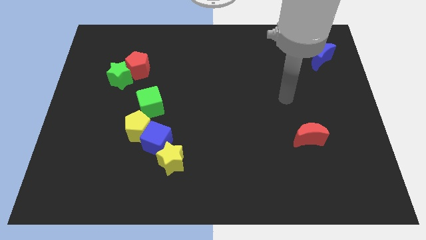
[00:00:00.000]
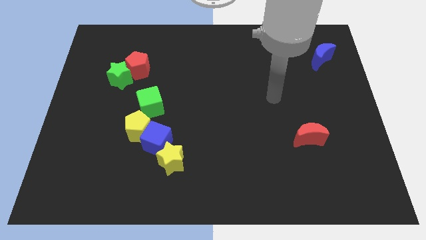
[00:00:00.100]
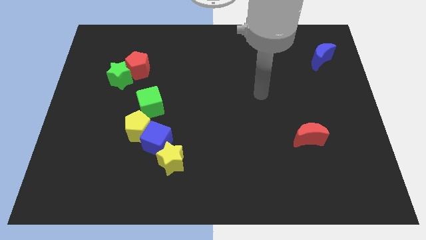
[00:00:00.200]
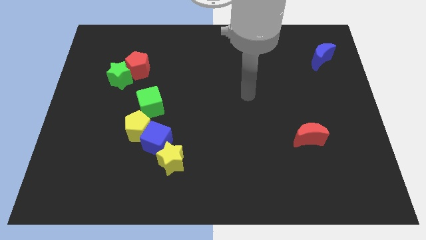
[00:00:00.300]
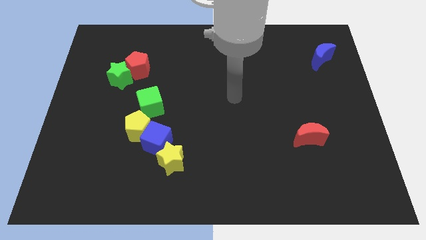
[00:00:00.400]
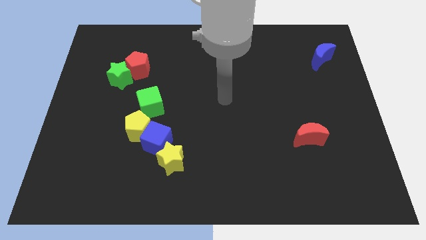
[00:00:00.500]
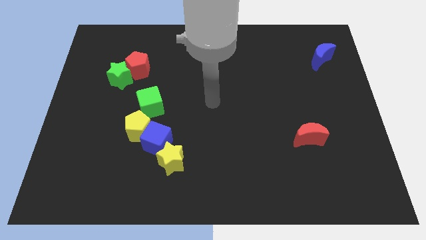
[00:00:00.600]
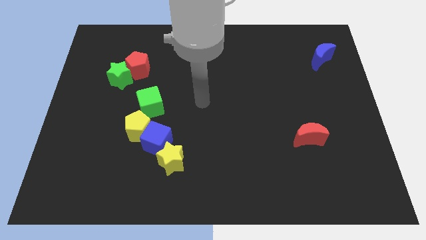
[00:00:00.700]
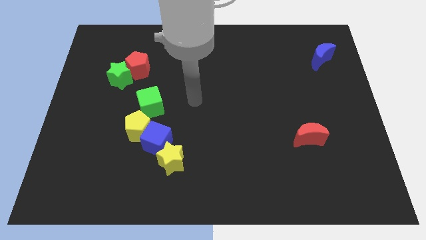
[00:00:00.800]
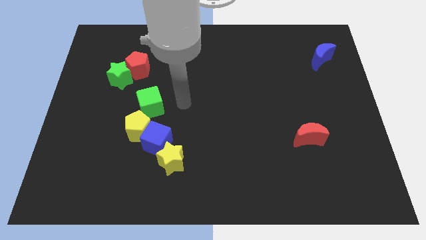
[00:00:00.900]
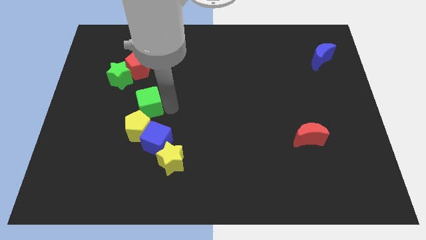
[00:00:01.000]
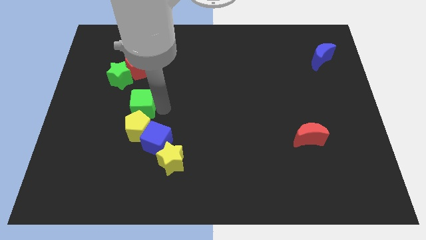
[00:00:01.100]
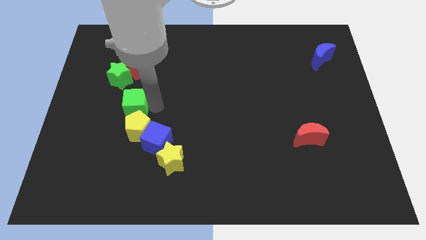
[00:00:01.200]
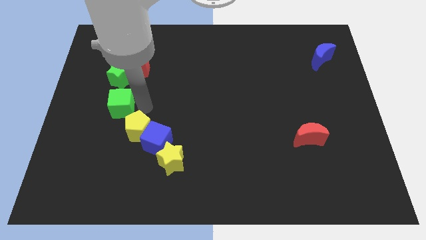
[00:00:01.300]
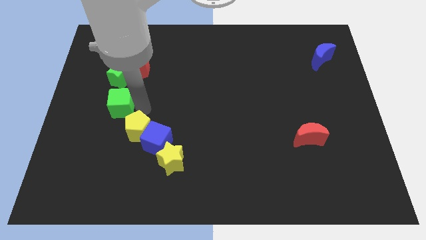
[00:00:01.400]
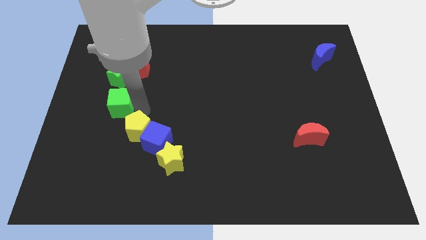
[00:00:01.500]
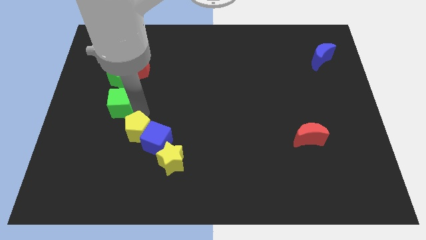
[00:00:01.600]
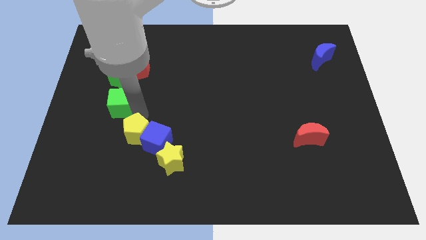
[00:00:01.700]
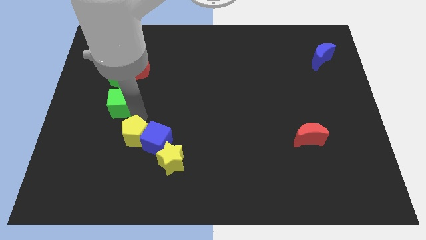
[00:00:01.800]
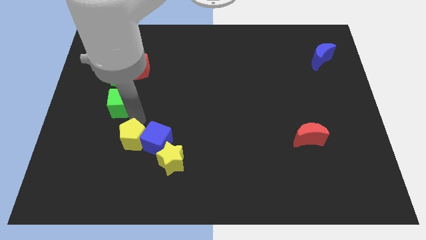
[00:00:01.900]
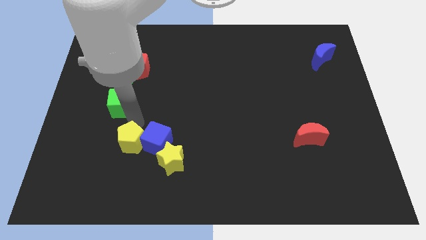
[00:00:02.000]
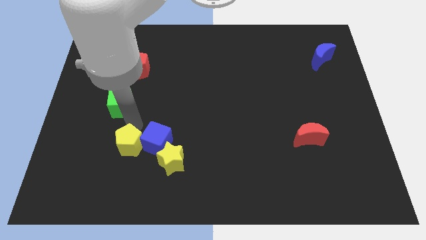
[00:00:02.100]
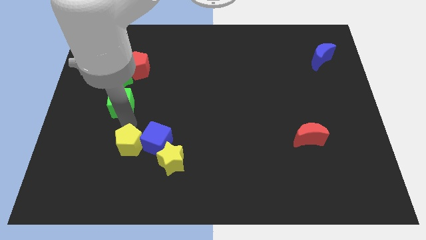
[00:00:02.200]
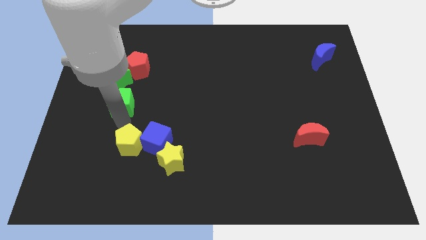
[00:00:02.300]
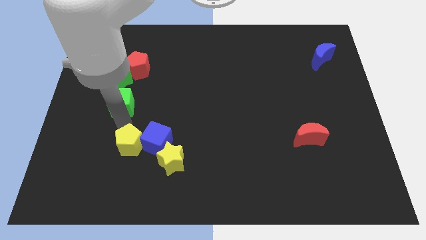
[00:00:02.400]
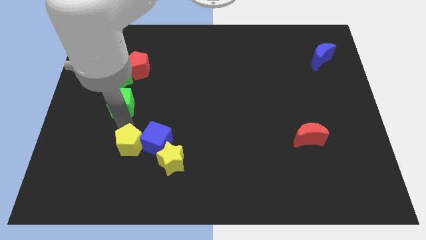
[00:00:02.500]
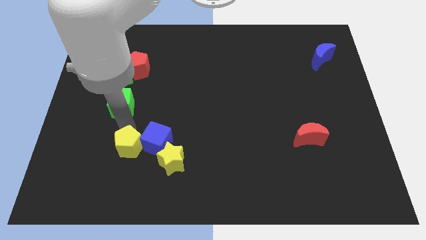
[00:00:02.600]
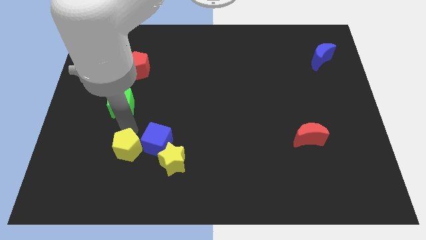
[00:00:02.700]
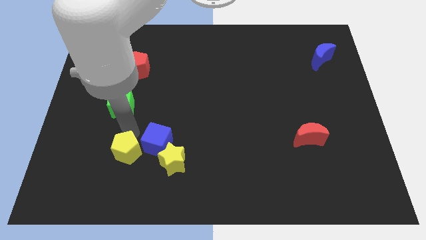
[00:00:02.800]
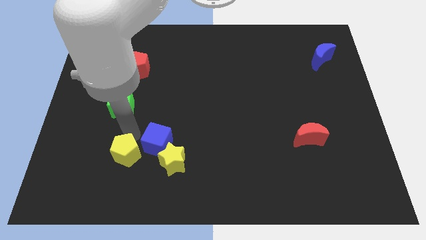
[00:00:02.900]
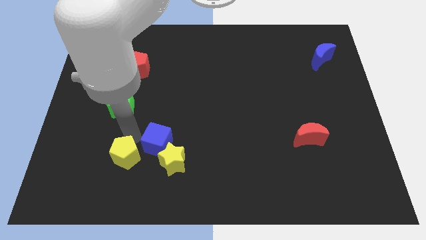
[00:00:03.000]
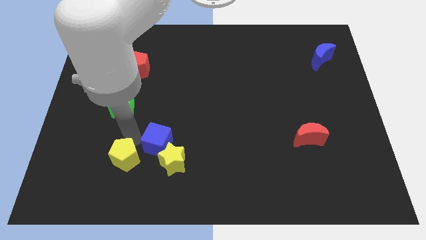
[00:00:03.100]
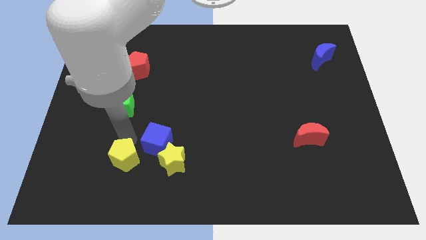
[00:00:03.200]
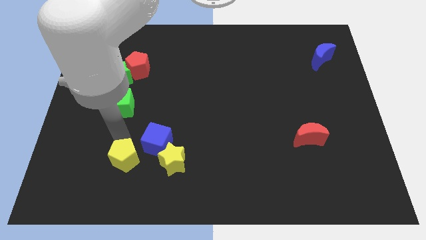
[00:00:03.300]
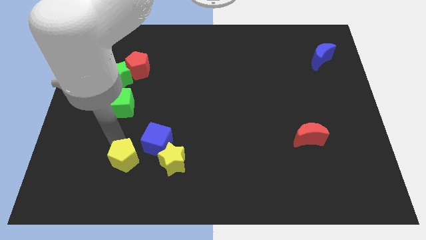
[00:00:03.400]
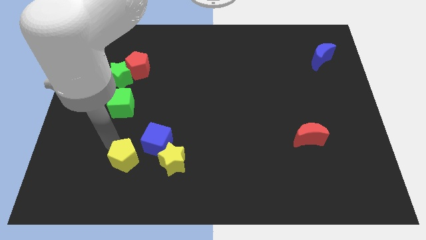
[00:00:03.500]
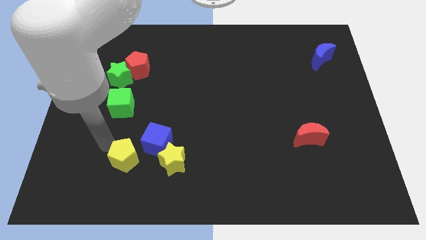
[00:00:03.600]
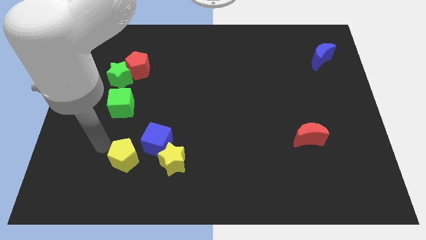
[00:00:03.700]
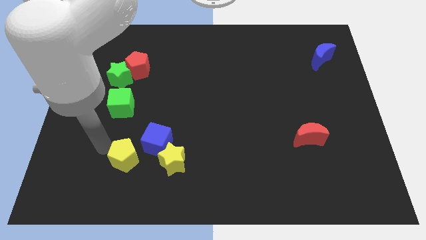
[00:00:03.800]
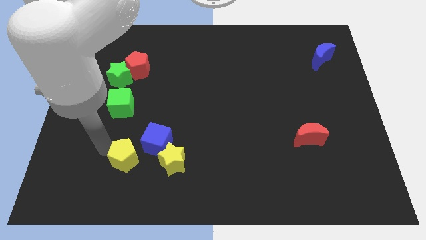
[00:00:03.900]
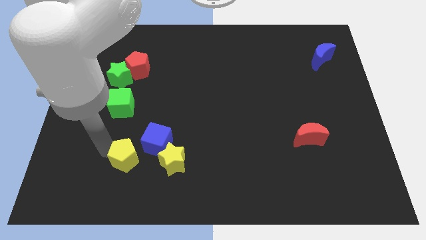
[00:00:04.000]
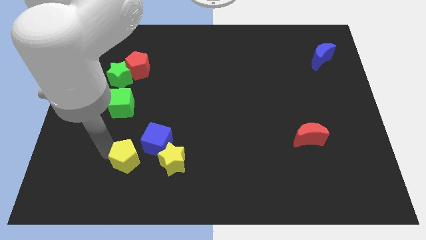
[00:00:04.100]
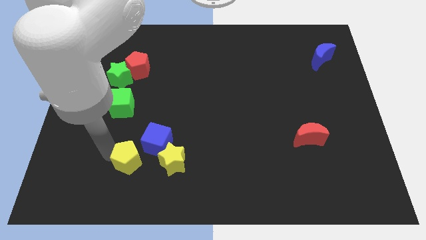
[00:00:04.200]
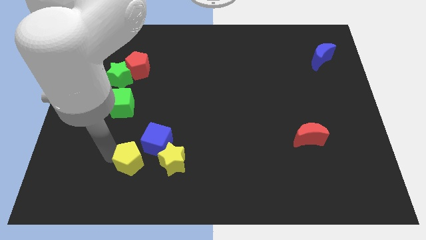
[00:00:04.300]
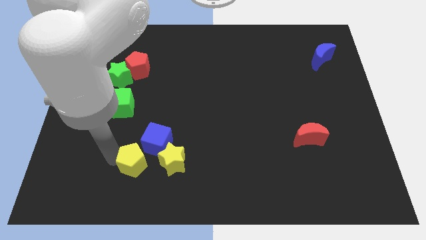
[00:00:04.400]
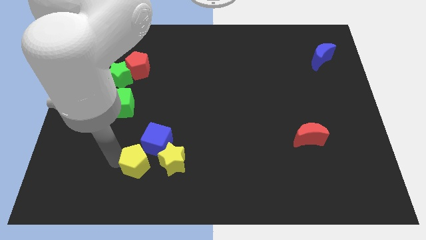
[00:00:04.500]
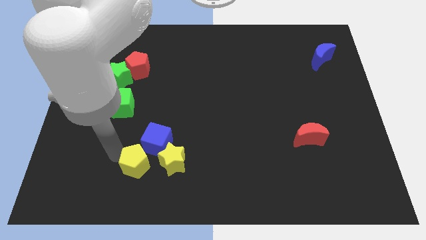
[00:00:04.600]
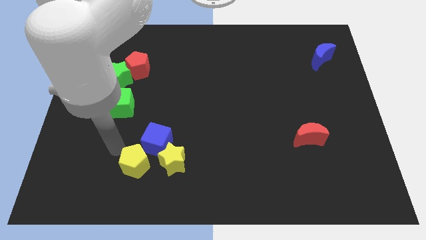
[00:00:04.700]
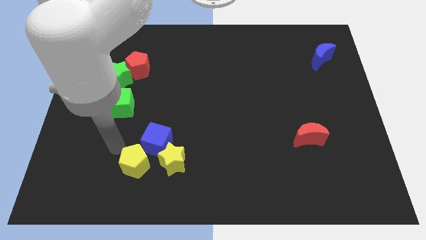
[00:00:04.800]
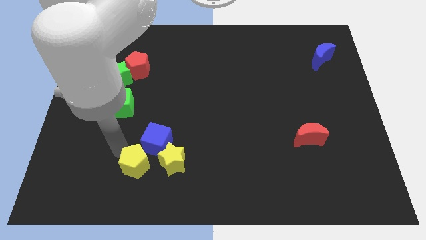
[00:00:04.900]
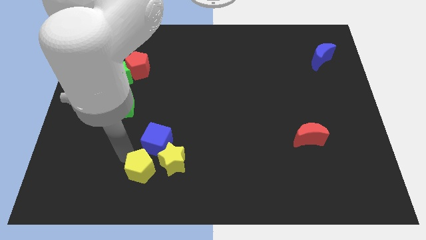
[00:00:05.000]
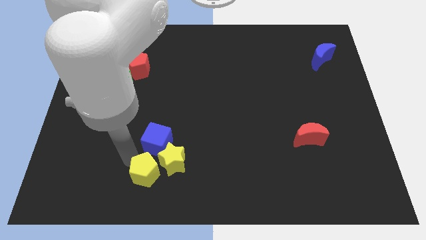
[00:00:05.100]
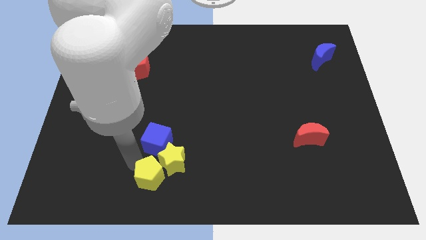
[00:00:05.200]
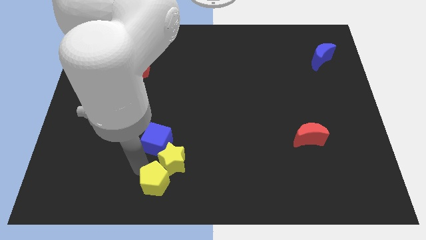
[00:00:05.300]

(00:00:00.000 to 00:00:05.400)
slide the yellow pentagon to the bottom

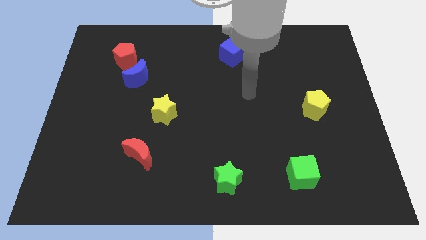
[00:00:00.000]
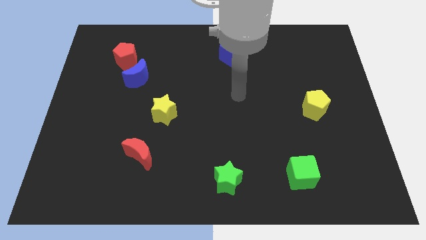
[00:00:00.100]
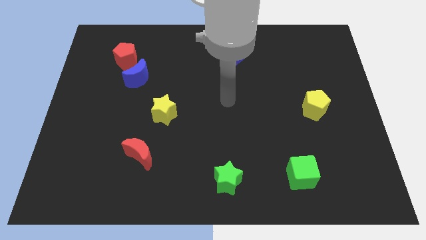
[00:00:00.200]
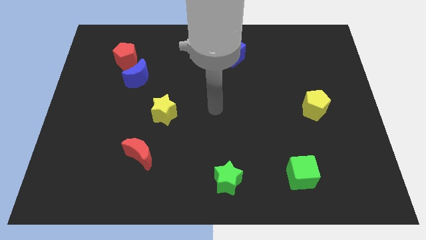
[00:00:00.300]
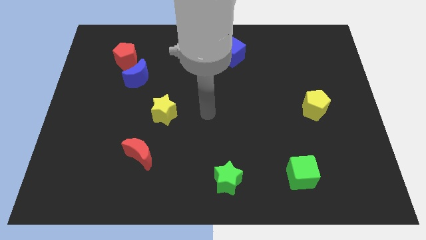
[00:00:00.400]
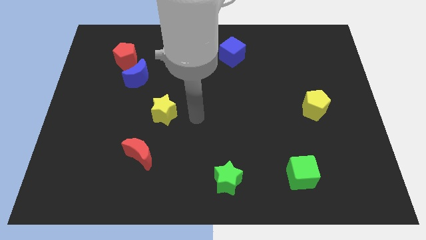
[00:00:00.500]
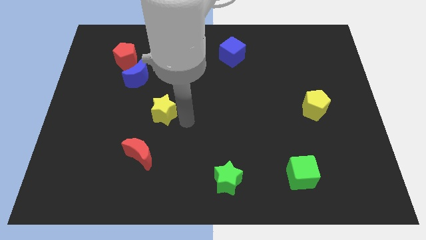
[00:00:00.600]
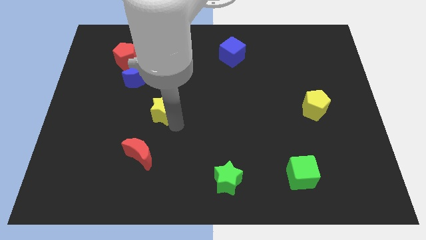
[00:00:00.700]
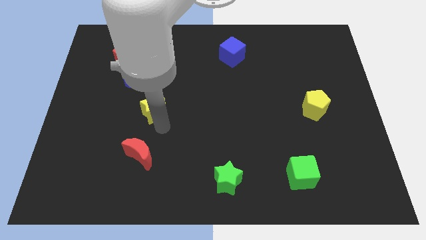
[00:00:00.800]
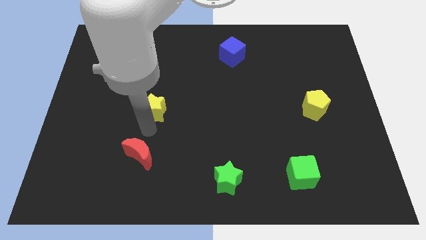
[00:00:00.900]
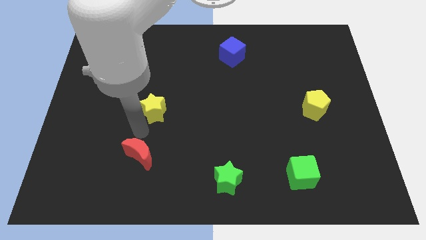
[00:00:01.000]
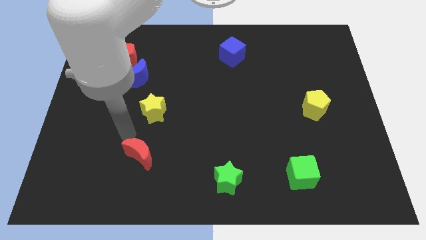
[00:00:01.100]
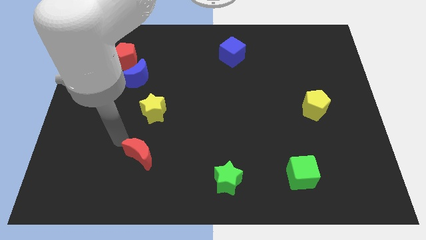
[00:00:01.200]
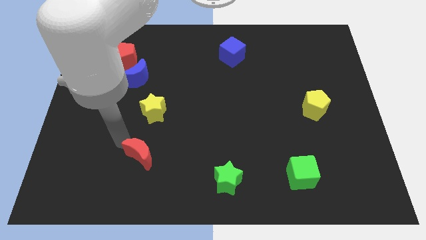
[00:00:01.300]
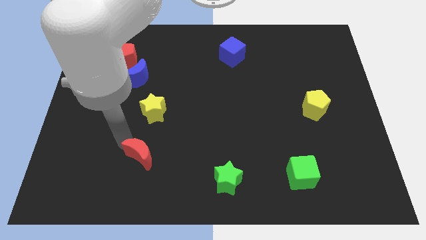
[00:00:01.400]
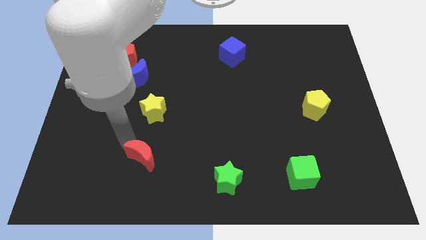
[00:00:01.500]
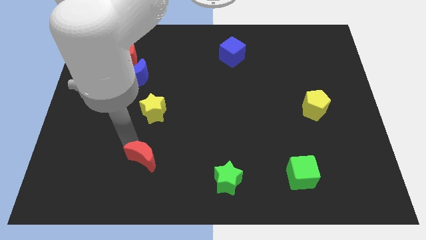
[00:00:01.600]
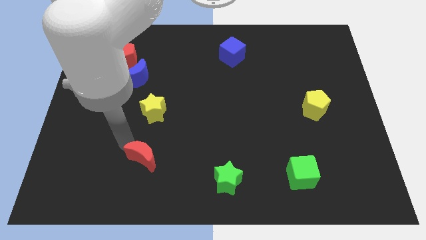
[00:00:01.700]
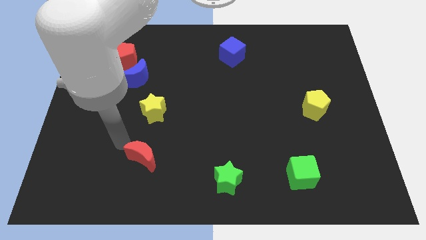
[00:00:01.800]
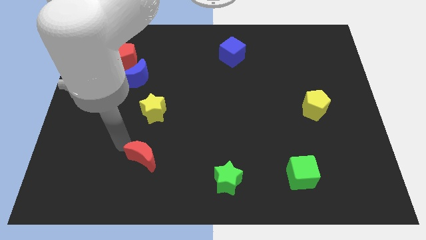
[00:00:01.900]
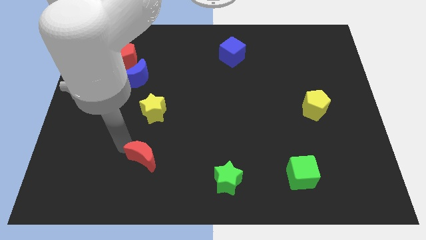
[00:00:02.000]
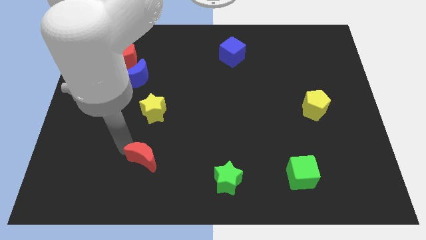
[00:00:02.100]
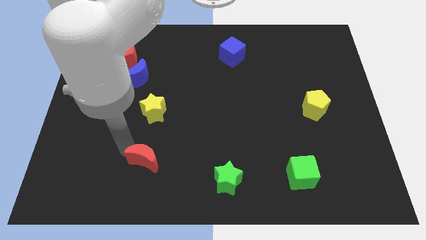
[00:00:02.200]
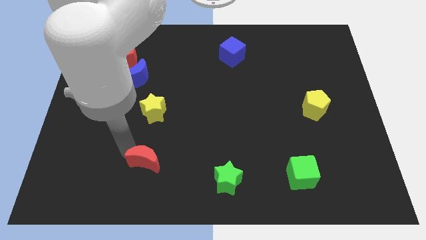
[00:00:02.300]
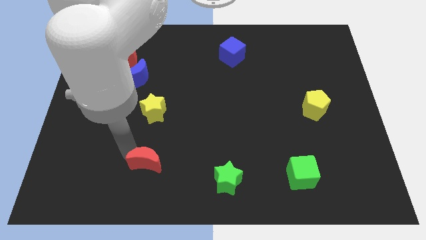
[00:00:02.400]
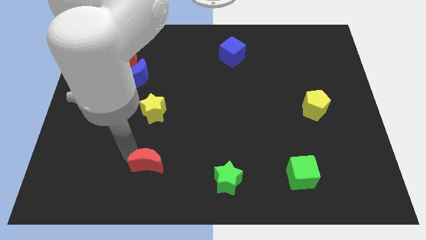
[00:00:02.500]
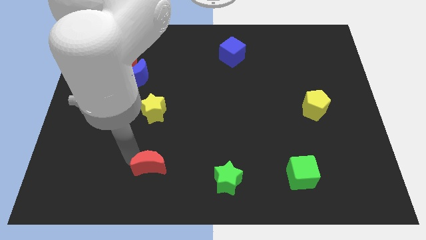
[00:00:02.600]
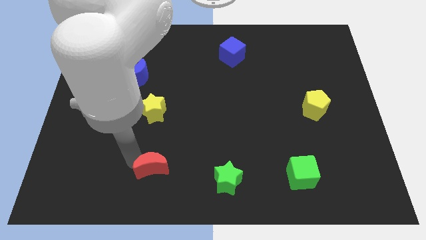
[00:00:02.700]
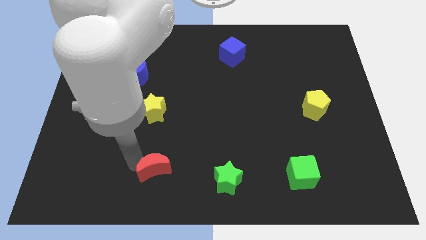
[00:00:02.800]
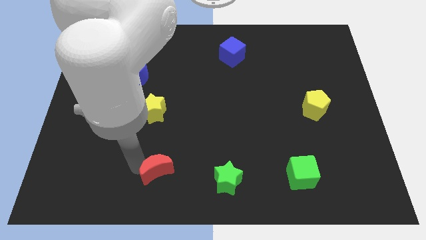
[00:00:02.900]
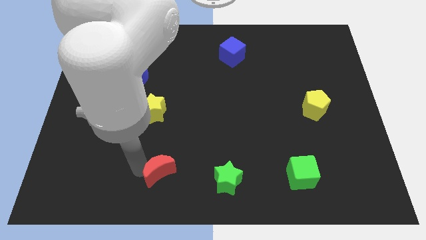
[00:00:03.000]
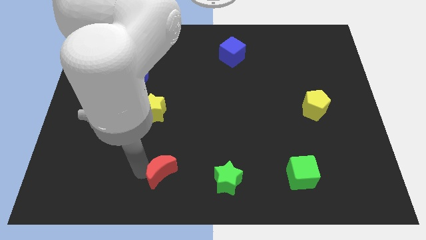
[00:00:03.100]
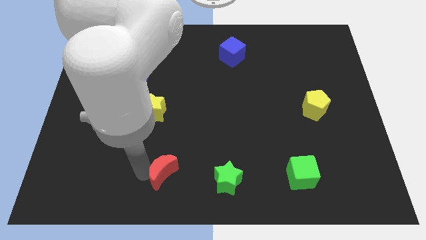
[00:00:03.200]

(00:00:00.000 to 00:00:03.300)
put the red moon to the bottom
